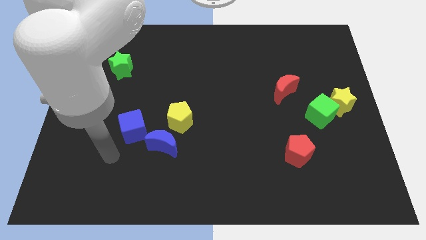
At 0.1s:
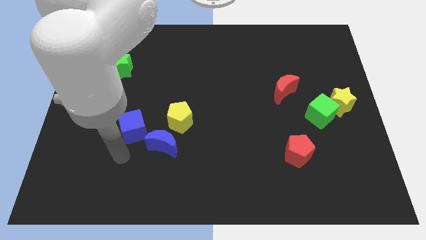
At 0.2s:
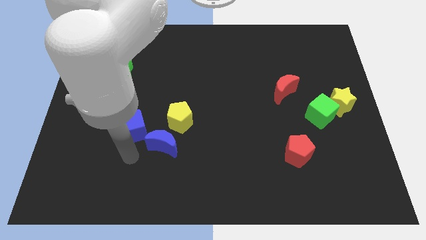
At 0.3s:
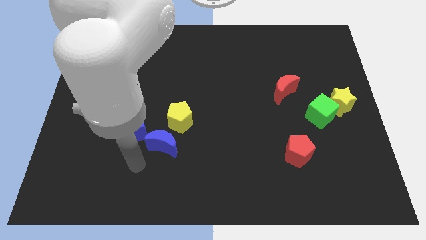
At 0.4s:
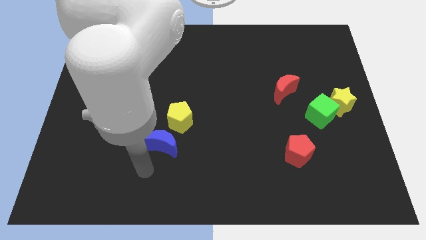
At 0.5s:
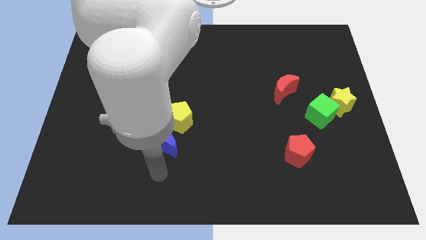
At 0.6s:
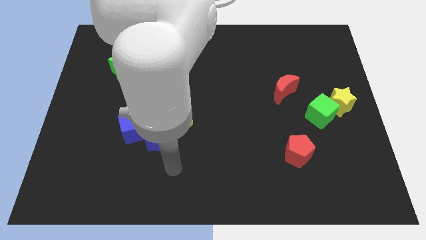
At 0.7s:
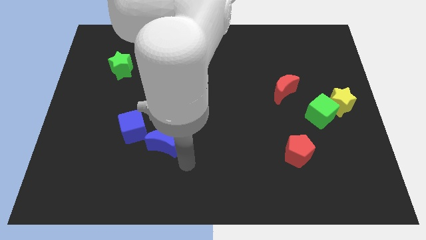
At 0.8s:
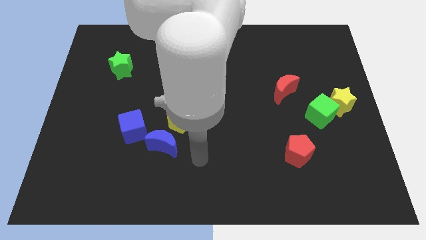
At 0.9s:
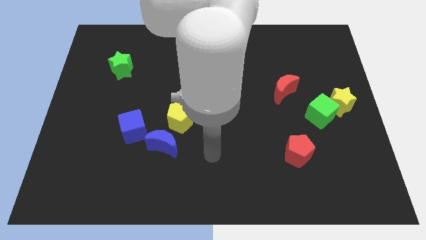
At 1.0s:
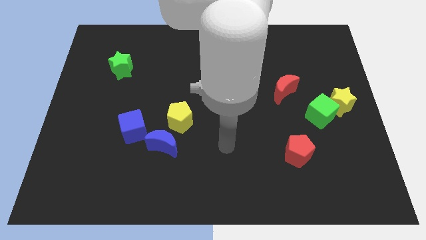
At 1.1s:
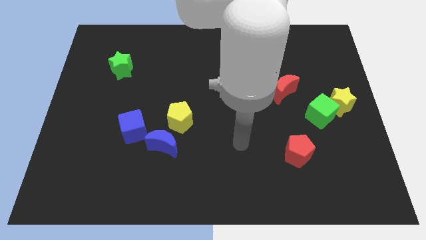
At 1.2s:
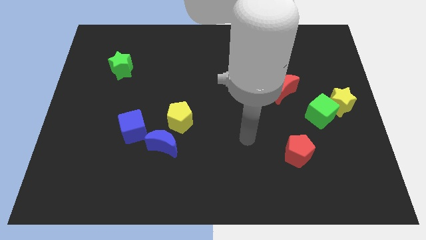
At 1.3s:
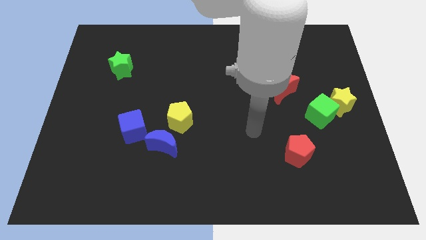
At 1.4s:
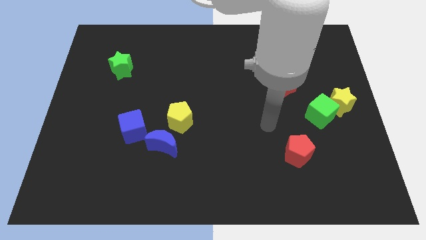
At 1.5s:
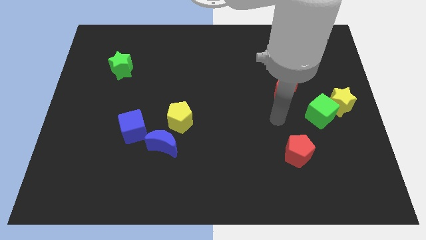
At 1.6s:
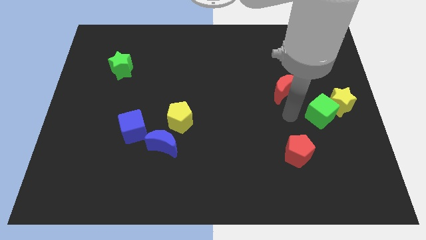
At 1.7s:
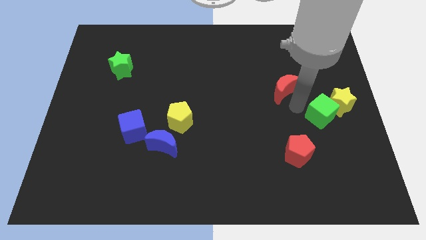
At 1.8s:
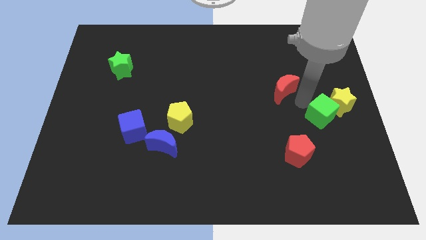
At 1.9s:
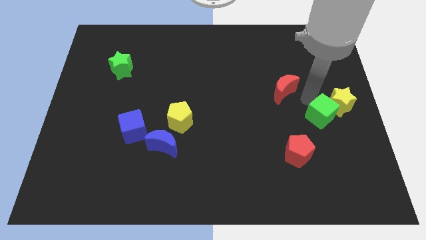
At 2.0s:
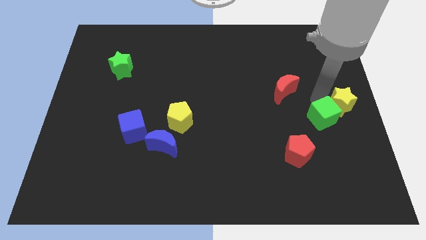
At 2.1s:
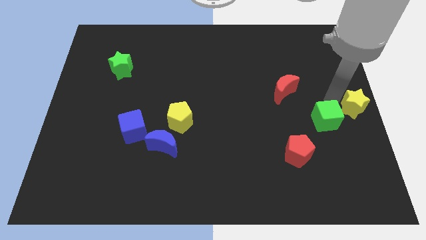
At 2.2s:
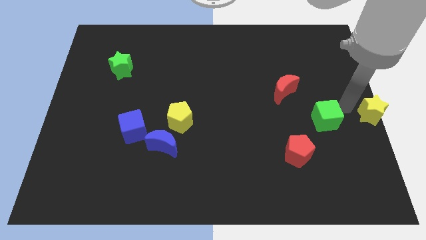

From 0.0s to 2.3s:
move the green cube away from the yellow star

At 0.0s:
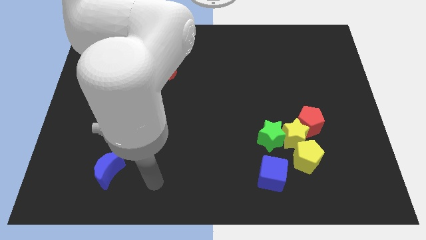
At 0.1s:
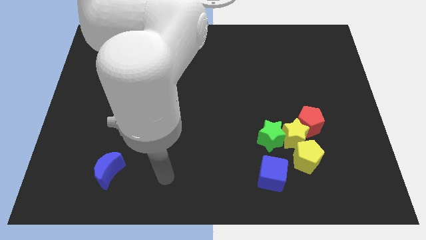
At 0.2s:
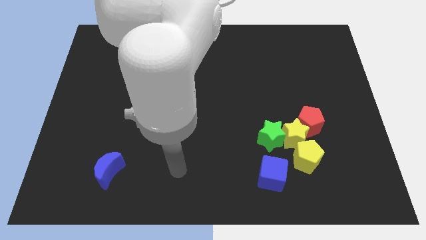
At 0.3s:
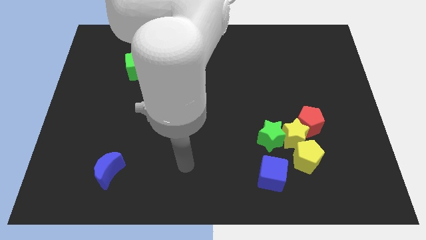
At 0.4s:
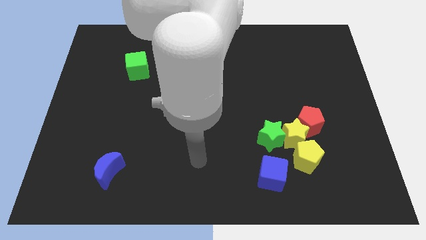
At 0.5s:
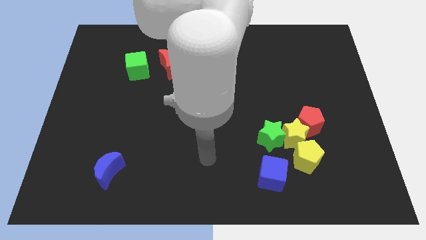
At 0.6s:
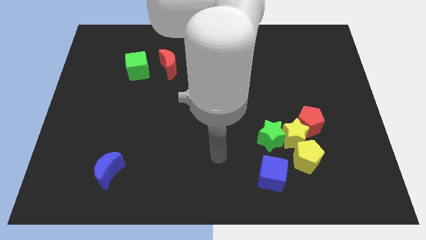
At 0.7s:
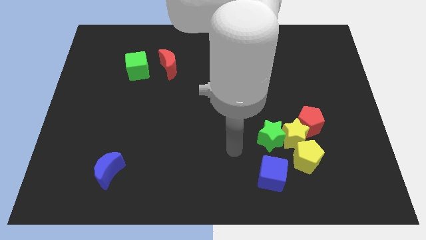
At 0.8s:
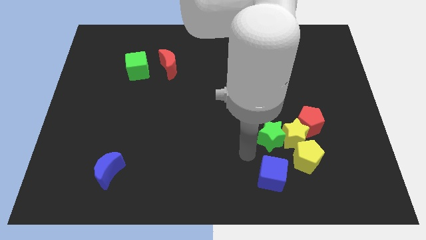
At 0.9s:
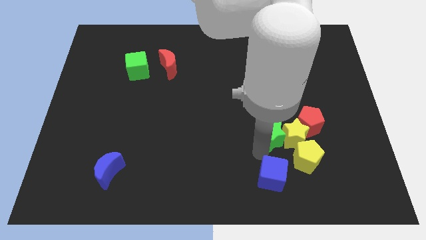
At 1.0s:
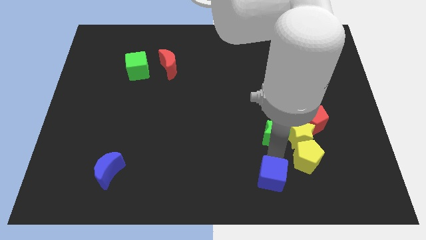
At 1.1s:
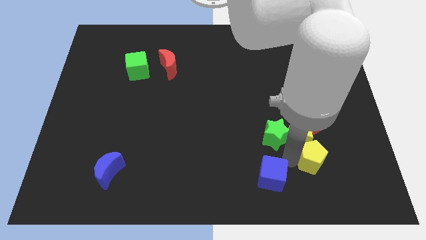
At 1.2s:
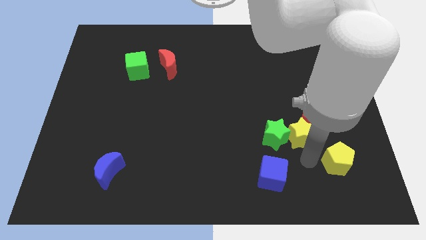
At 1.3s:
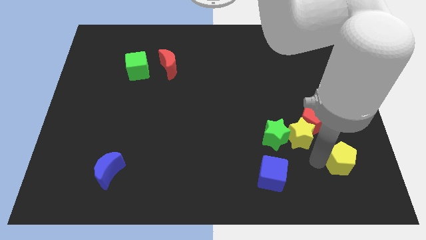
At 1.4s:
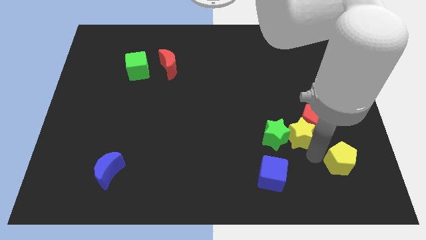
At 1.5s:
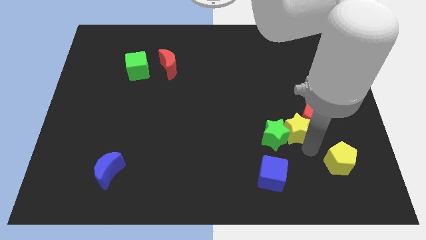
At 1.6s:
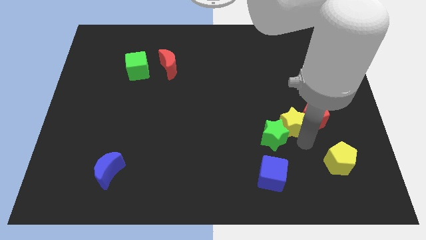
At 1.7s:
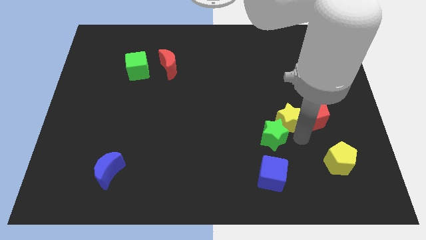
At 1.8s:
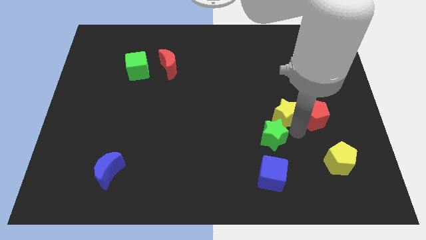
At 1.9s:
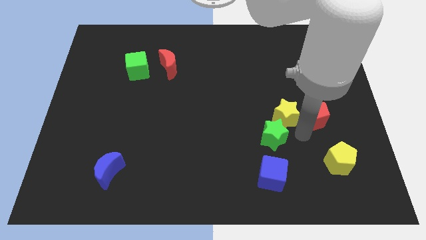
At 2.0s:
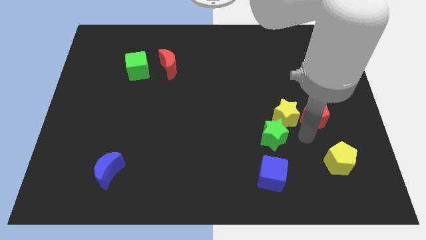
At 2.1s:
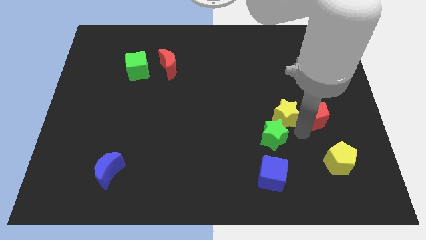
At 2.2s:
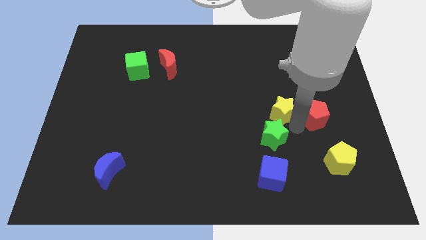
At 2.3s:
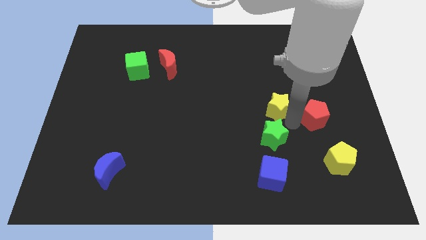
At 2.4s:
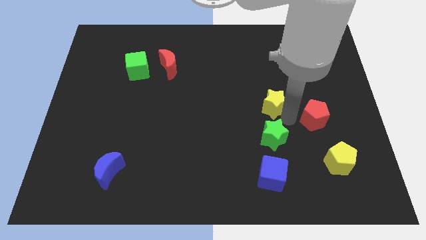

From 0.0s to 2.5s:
separate the yellow star from the red pentagon, green star, and yellow pentagon

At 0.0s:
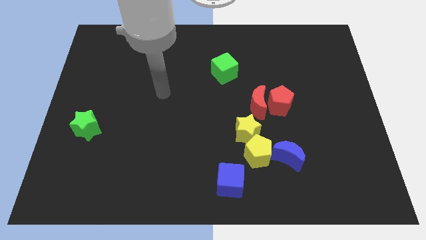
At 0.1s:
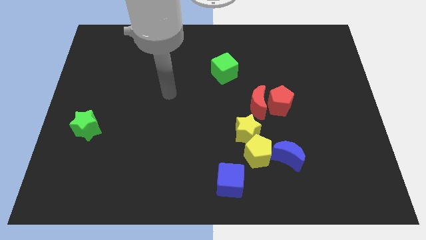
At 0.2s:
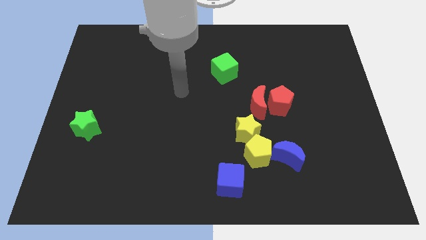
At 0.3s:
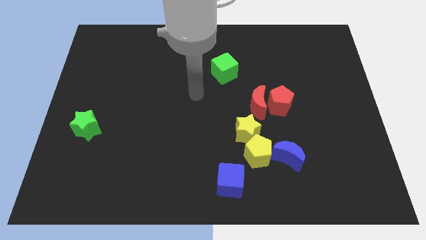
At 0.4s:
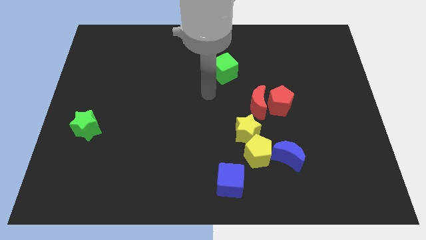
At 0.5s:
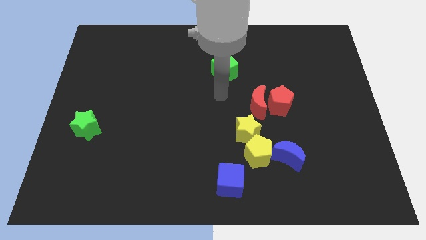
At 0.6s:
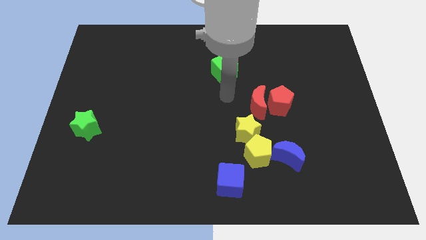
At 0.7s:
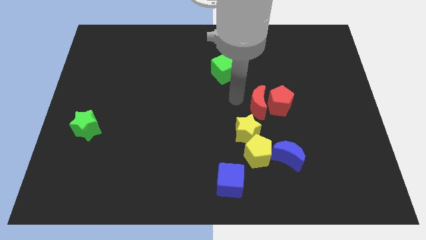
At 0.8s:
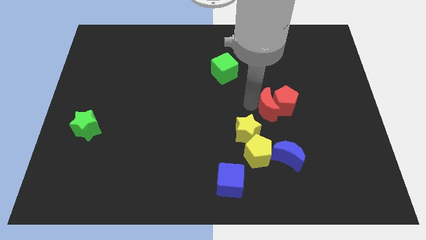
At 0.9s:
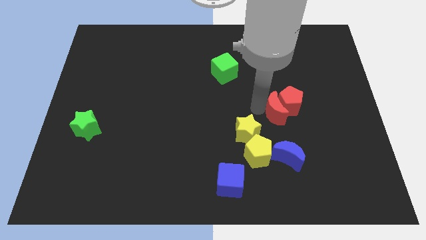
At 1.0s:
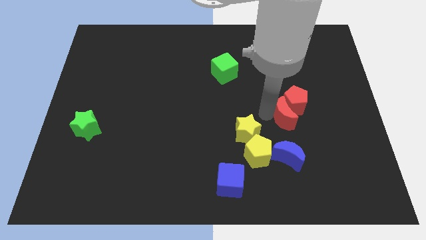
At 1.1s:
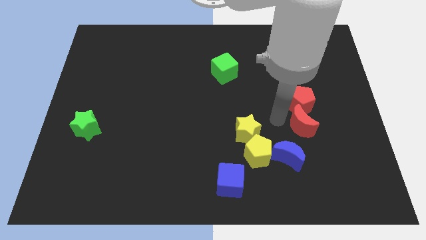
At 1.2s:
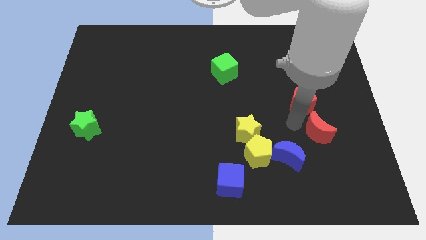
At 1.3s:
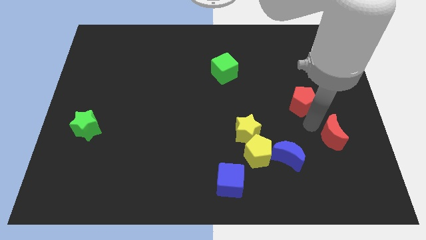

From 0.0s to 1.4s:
move the red pentagon away from the red moon

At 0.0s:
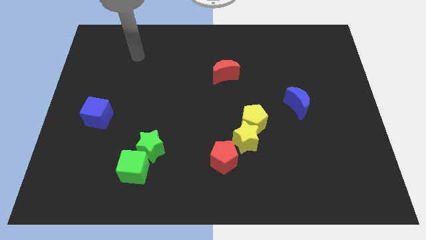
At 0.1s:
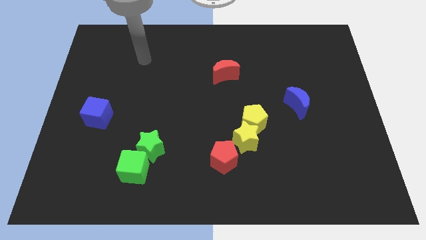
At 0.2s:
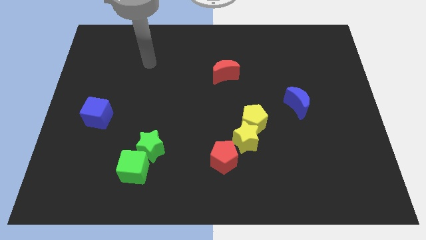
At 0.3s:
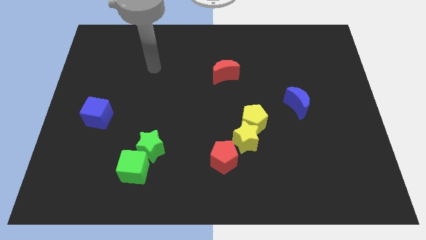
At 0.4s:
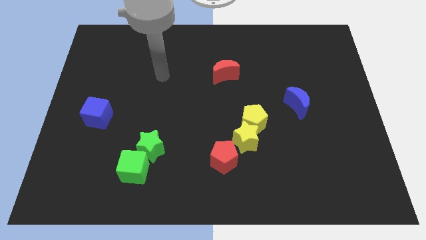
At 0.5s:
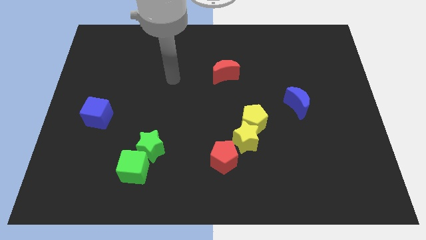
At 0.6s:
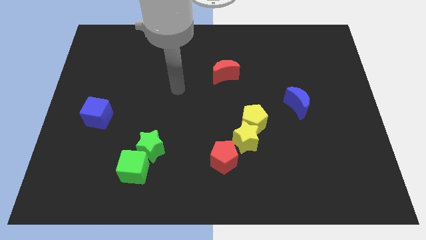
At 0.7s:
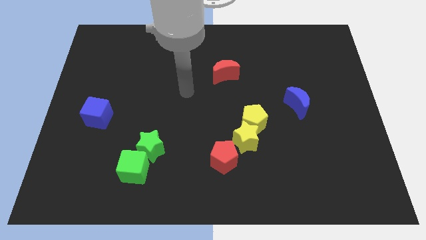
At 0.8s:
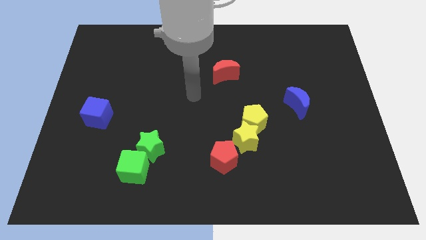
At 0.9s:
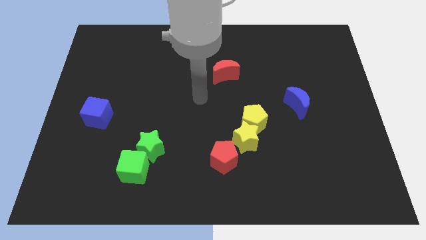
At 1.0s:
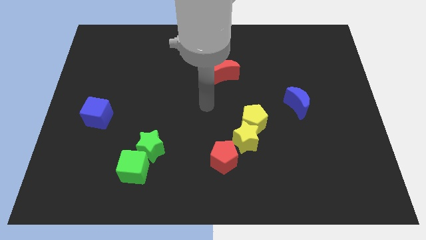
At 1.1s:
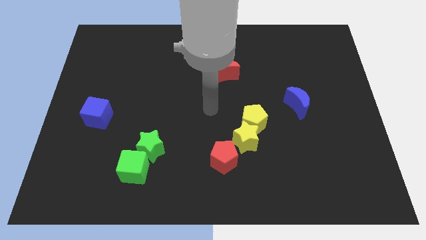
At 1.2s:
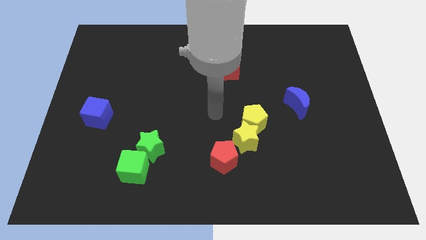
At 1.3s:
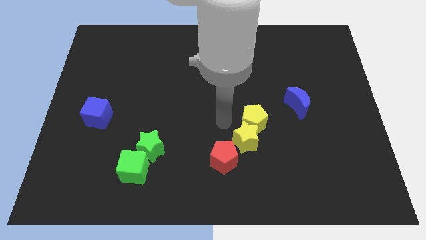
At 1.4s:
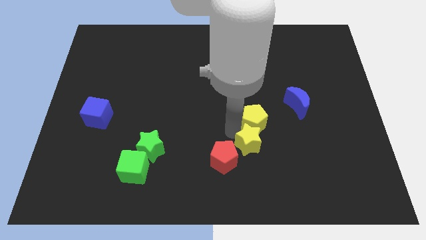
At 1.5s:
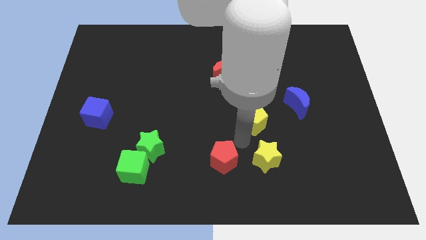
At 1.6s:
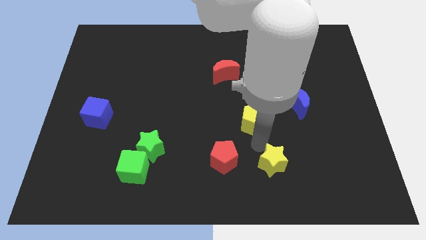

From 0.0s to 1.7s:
move the yellow pentagon away from the yellow star

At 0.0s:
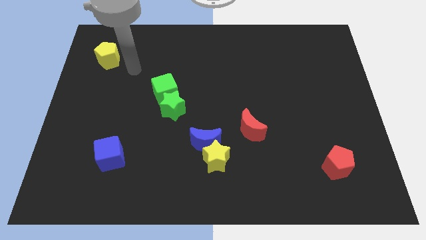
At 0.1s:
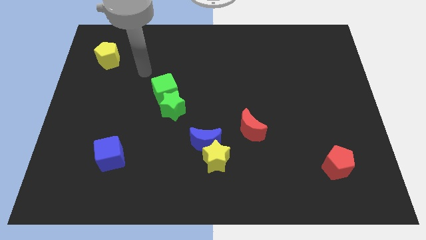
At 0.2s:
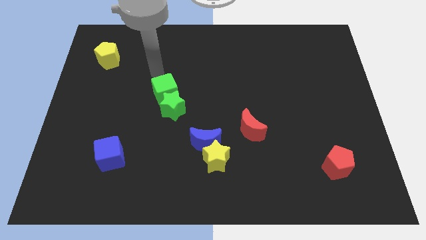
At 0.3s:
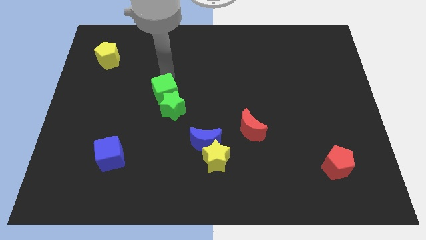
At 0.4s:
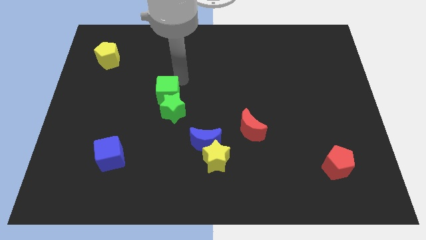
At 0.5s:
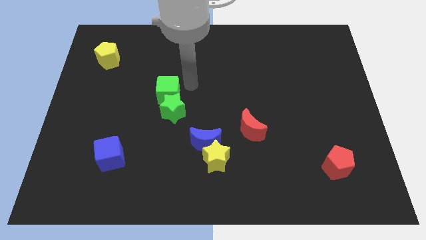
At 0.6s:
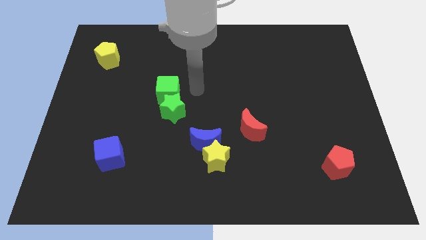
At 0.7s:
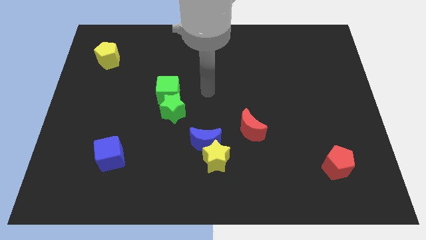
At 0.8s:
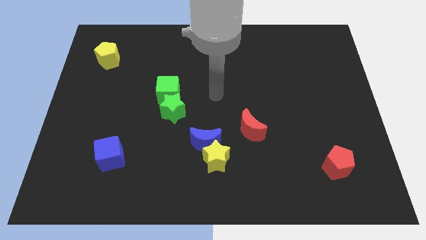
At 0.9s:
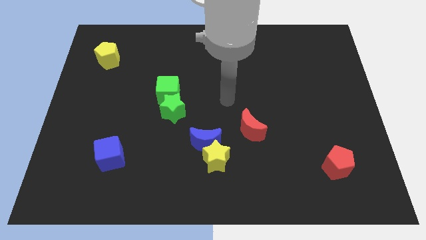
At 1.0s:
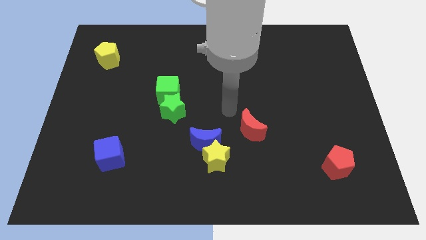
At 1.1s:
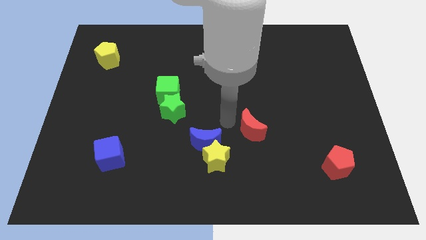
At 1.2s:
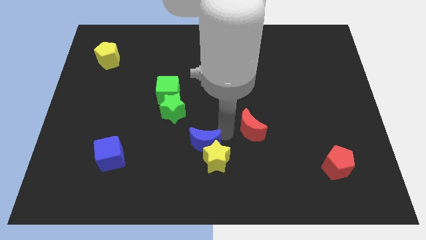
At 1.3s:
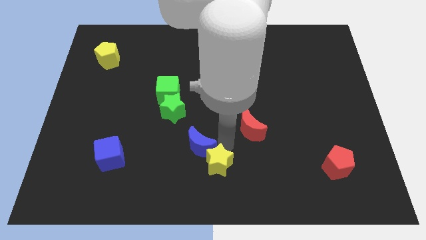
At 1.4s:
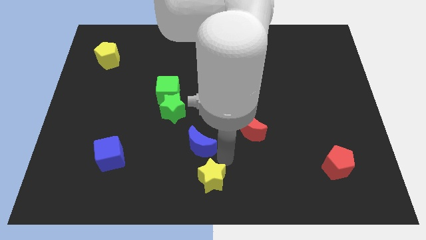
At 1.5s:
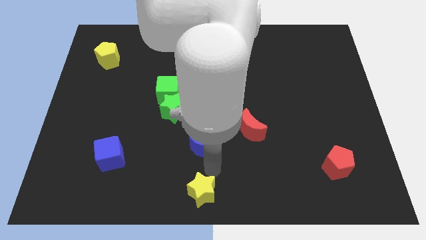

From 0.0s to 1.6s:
separate the blue moon from the yellow star
